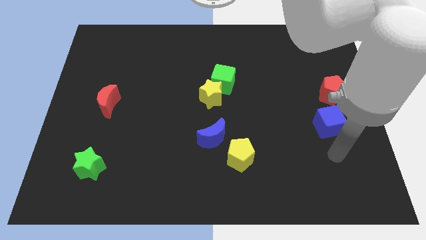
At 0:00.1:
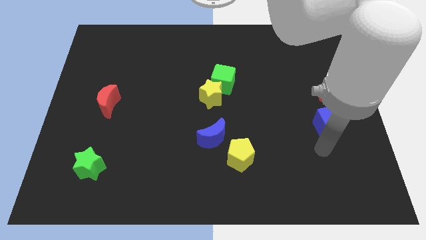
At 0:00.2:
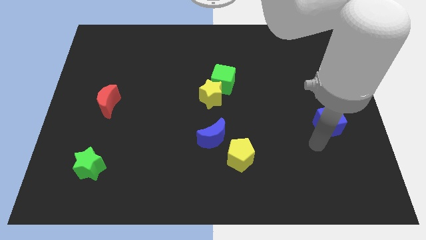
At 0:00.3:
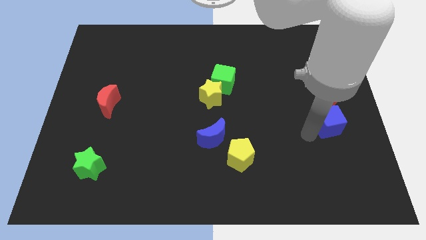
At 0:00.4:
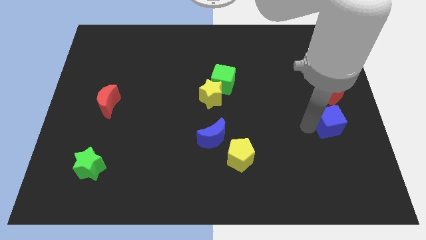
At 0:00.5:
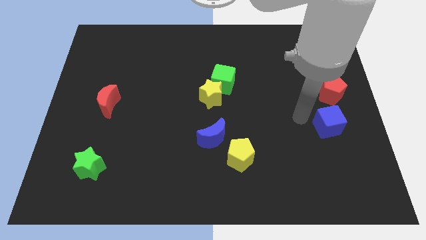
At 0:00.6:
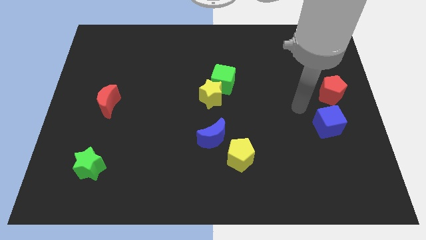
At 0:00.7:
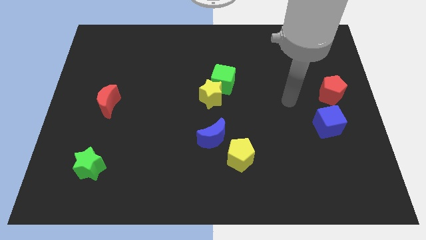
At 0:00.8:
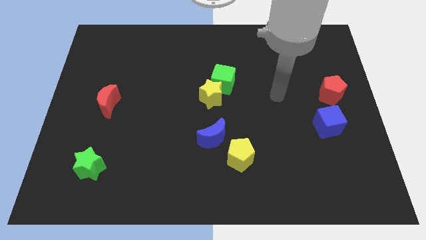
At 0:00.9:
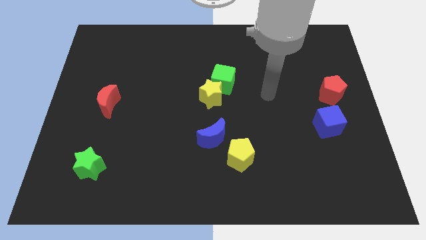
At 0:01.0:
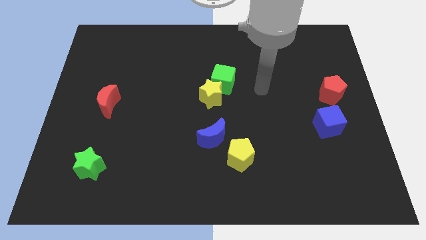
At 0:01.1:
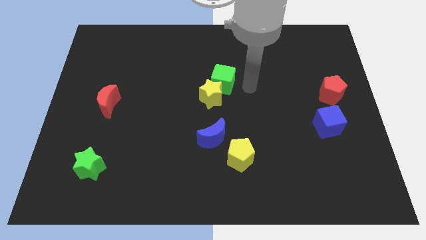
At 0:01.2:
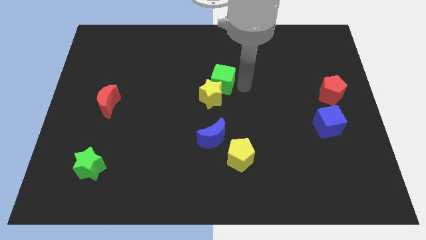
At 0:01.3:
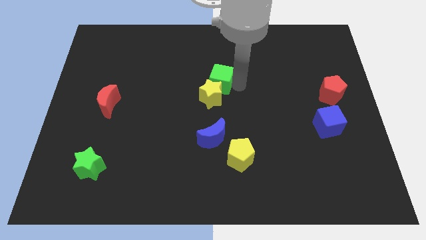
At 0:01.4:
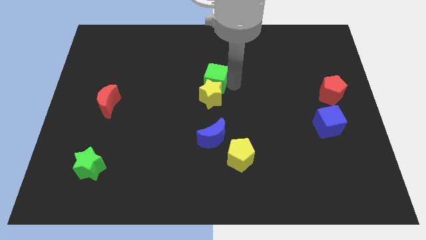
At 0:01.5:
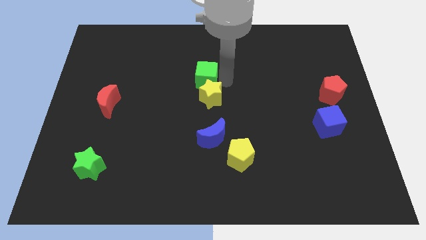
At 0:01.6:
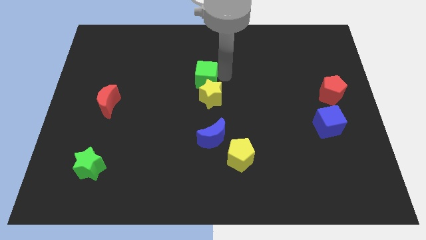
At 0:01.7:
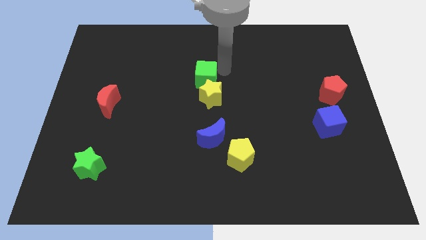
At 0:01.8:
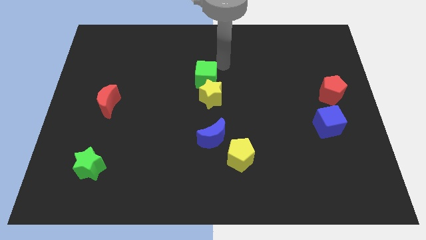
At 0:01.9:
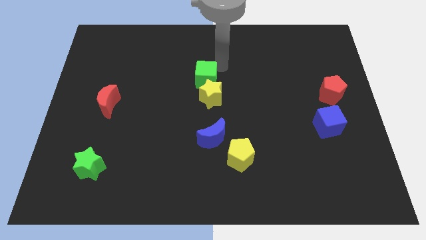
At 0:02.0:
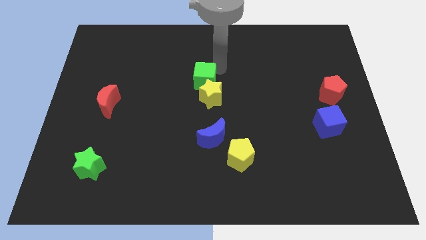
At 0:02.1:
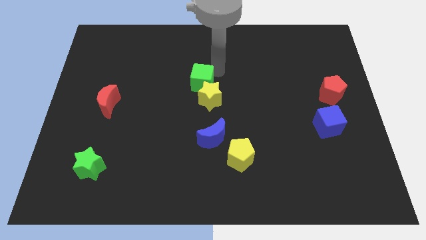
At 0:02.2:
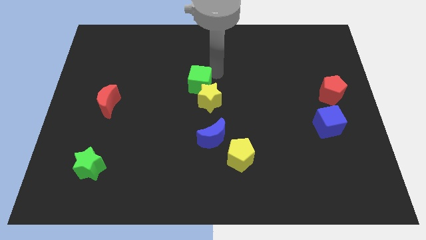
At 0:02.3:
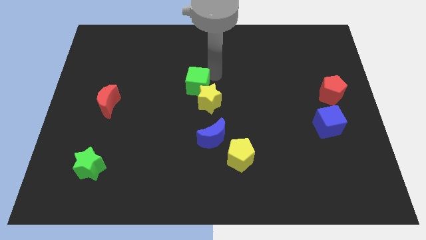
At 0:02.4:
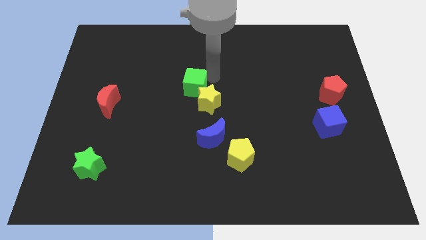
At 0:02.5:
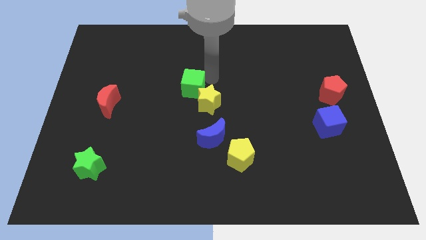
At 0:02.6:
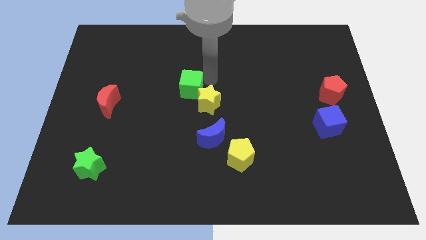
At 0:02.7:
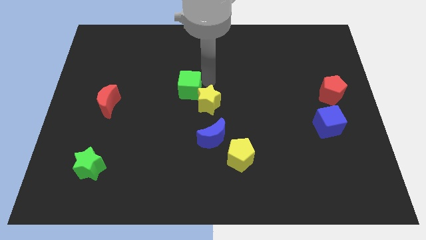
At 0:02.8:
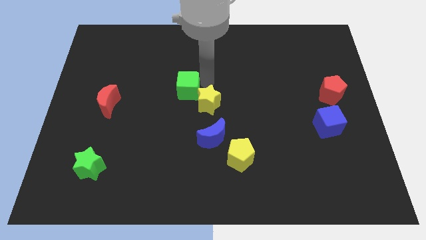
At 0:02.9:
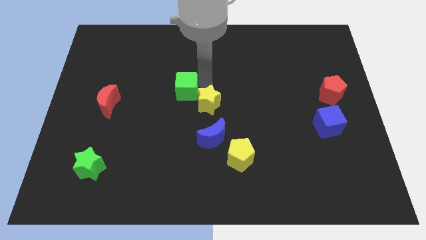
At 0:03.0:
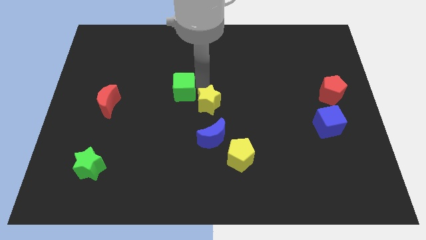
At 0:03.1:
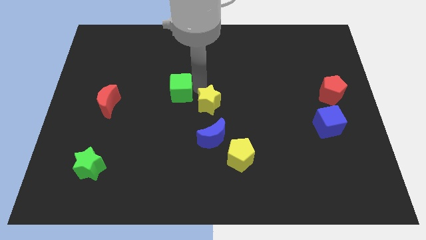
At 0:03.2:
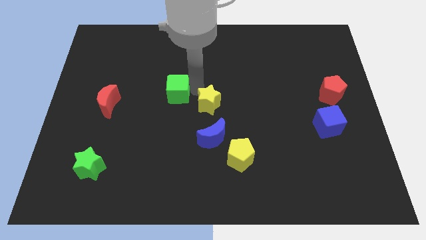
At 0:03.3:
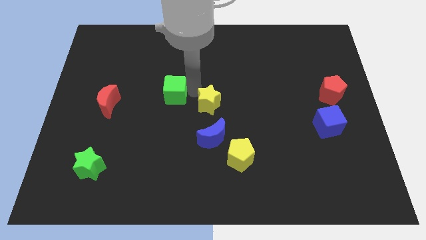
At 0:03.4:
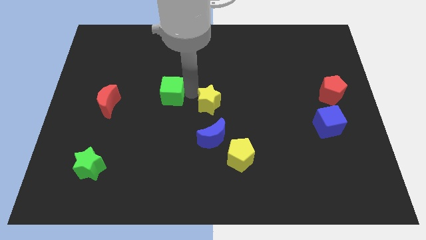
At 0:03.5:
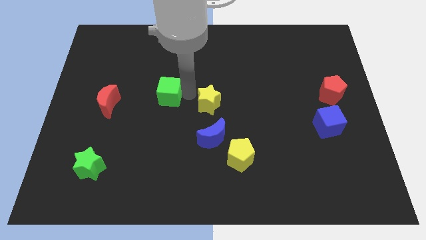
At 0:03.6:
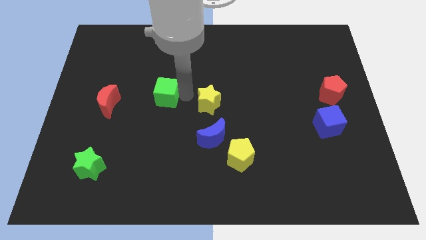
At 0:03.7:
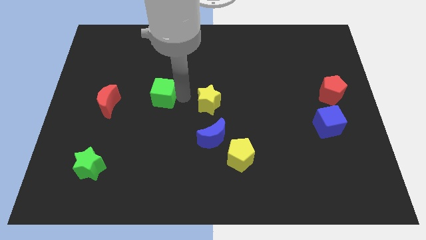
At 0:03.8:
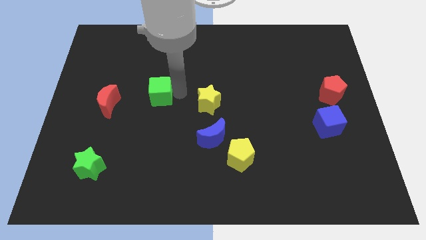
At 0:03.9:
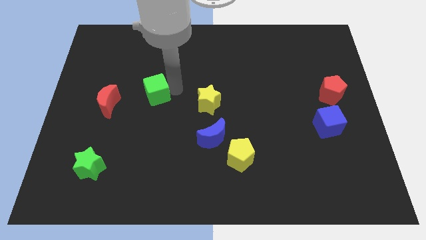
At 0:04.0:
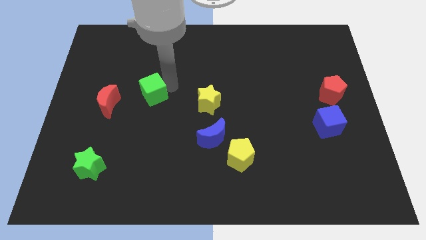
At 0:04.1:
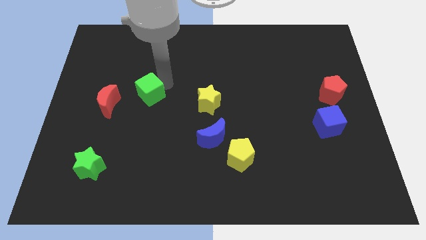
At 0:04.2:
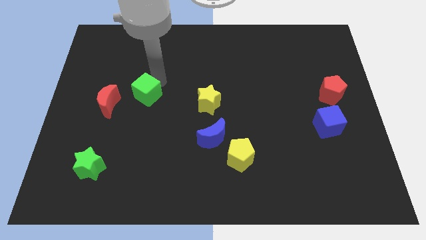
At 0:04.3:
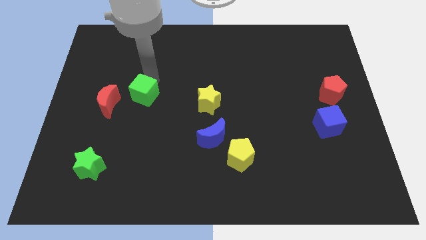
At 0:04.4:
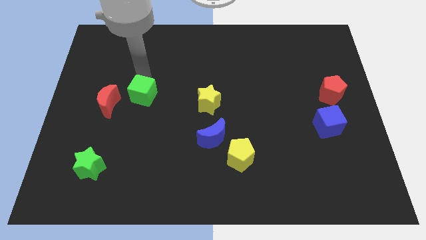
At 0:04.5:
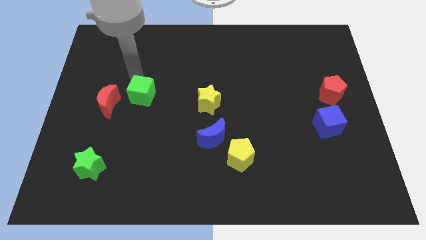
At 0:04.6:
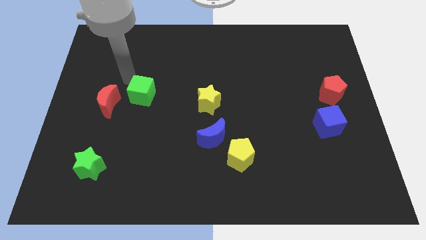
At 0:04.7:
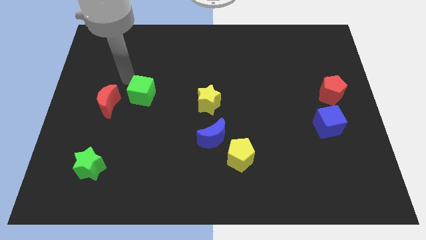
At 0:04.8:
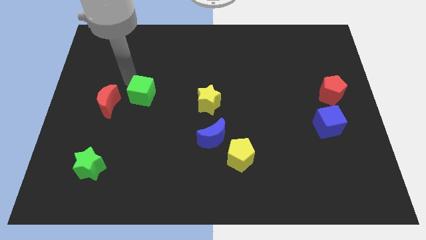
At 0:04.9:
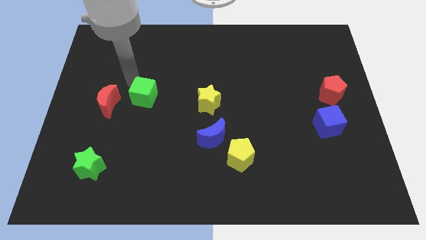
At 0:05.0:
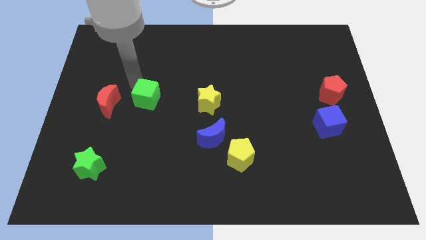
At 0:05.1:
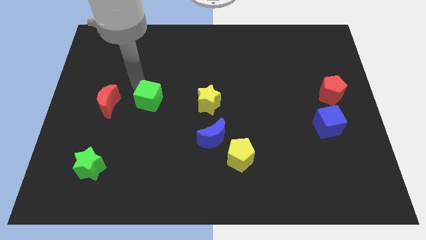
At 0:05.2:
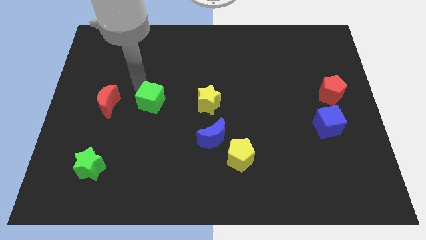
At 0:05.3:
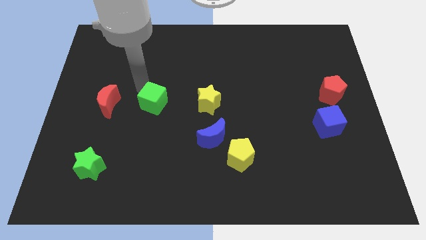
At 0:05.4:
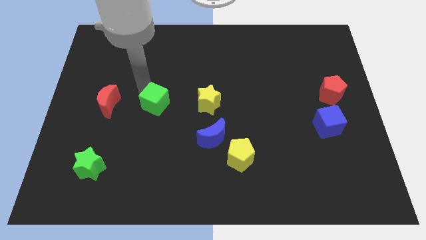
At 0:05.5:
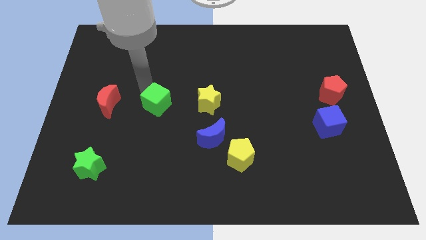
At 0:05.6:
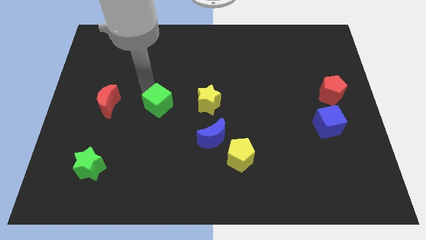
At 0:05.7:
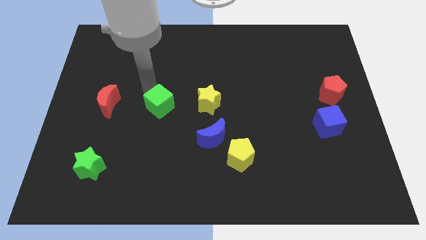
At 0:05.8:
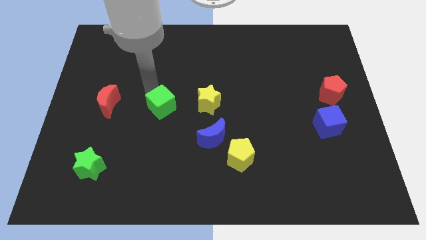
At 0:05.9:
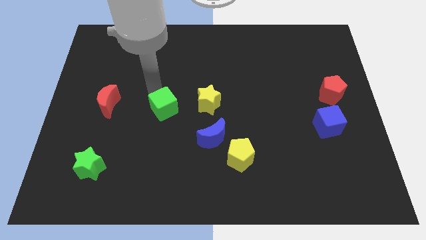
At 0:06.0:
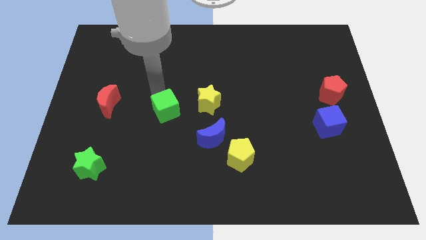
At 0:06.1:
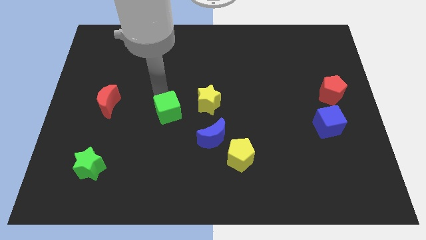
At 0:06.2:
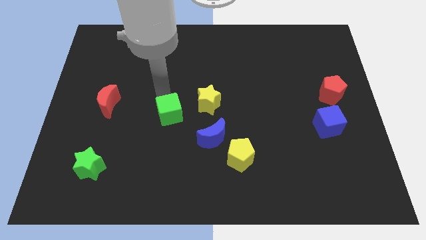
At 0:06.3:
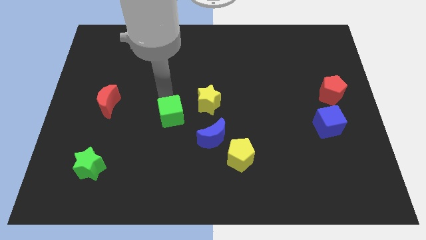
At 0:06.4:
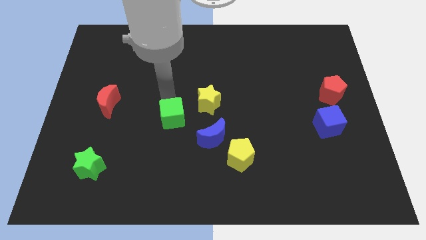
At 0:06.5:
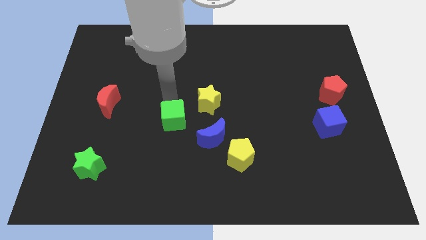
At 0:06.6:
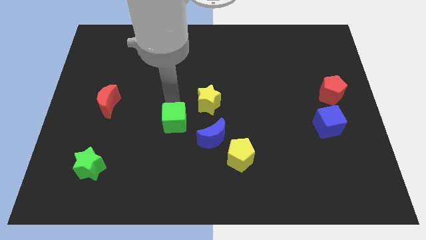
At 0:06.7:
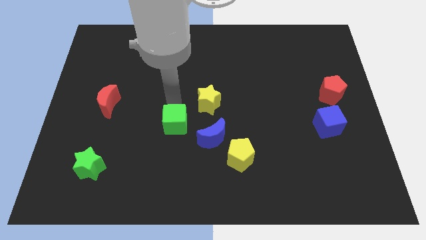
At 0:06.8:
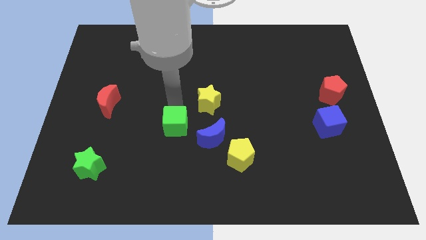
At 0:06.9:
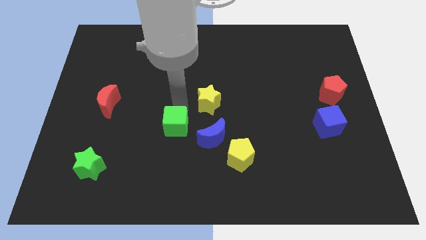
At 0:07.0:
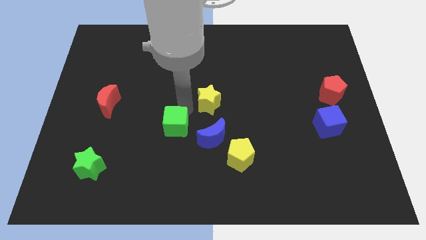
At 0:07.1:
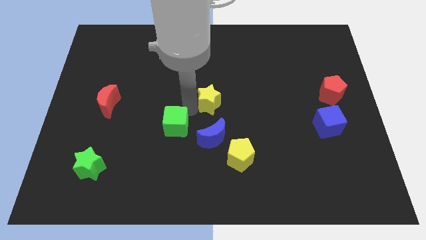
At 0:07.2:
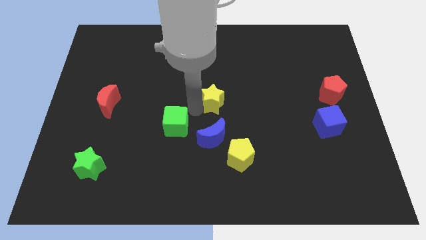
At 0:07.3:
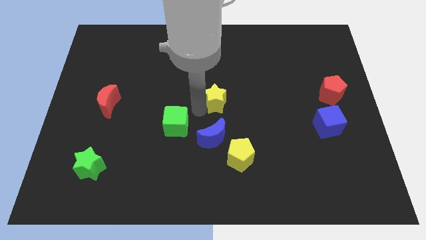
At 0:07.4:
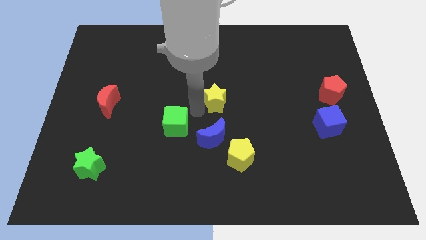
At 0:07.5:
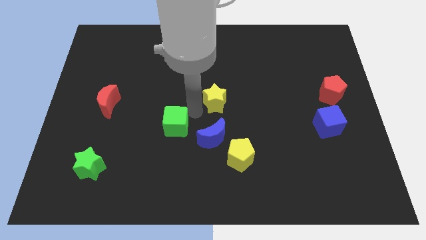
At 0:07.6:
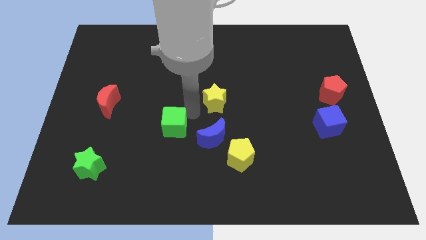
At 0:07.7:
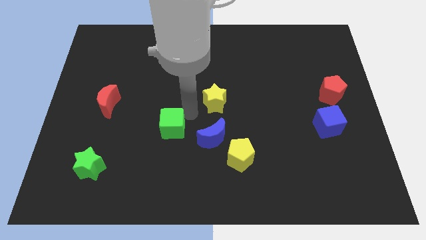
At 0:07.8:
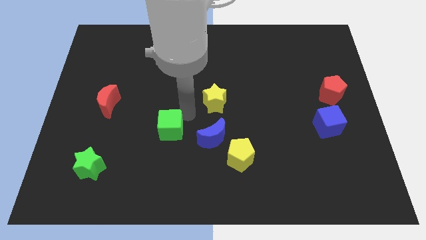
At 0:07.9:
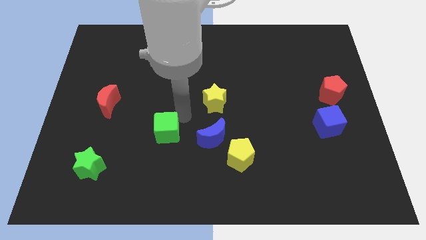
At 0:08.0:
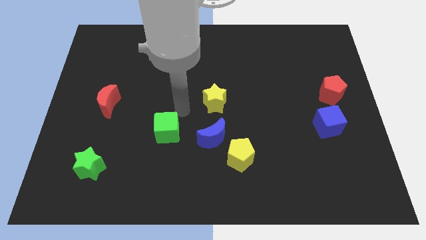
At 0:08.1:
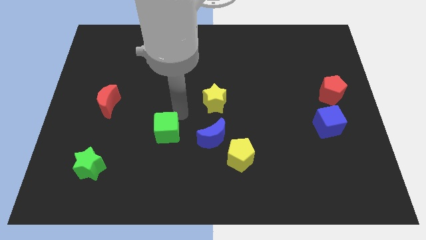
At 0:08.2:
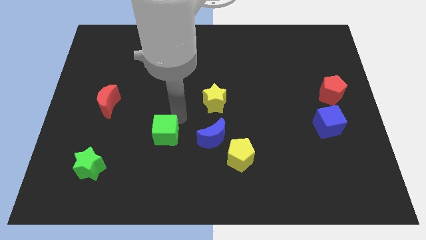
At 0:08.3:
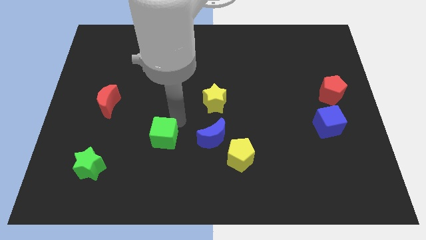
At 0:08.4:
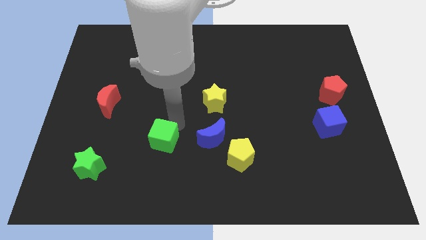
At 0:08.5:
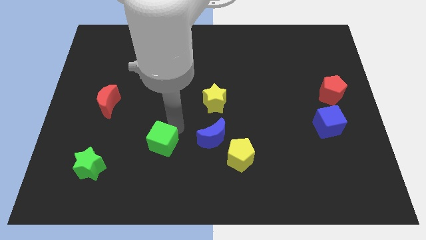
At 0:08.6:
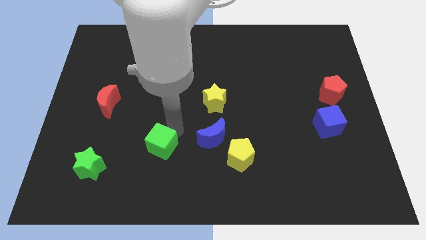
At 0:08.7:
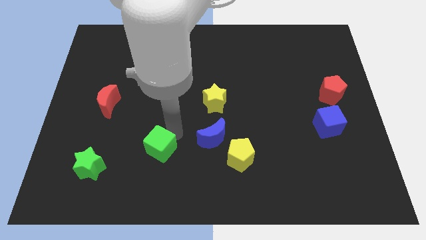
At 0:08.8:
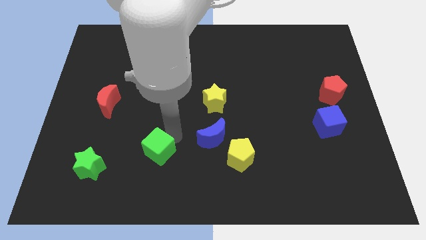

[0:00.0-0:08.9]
put the green cube just right of the green star
